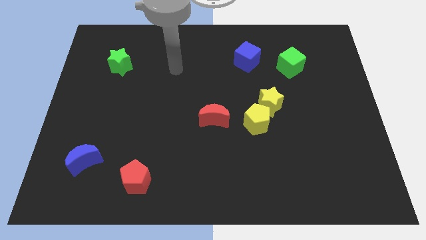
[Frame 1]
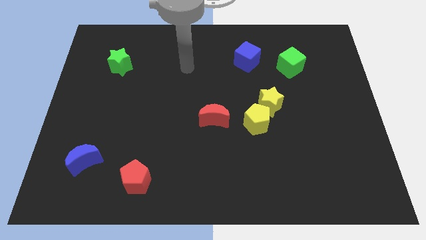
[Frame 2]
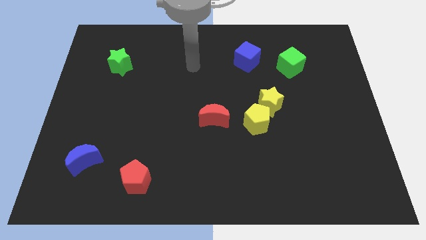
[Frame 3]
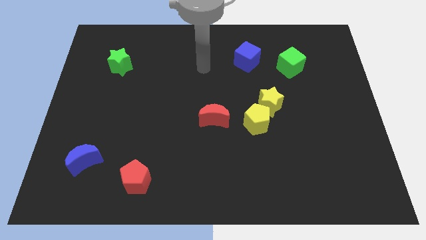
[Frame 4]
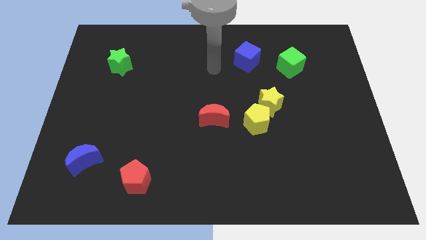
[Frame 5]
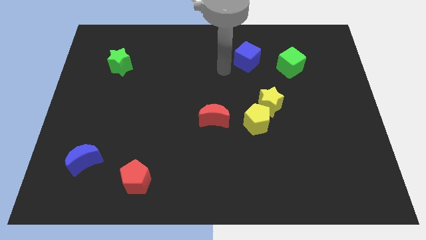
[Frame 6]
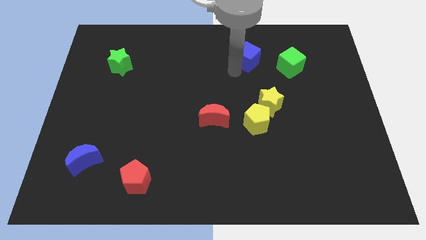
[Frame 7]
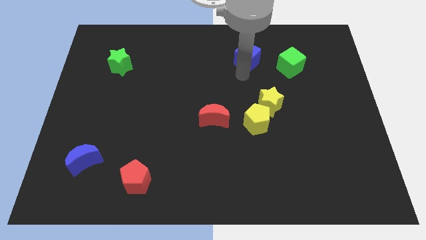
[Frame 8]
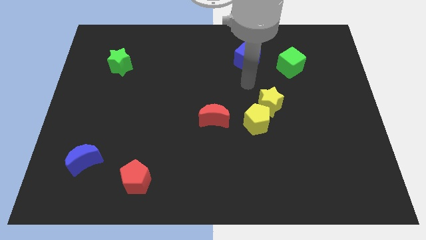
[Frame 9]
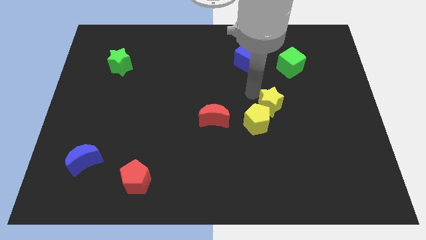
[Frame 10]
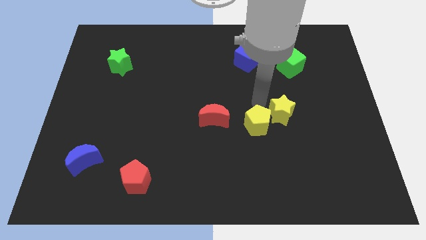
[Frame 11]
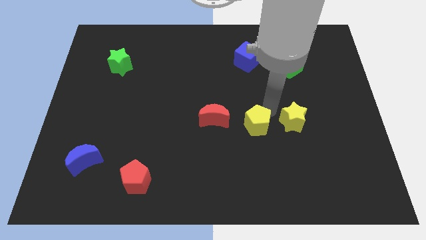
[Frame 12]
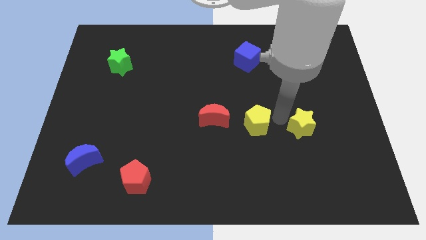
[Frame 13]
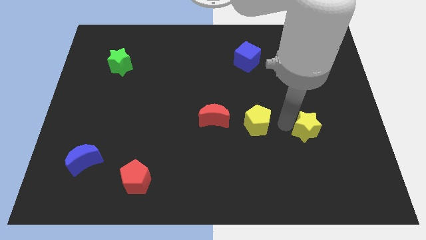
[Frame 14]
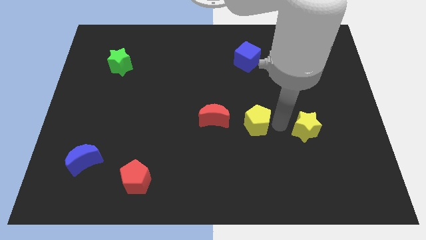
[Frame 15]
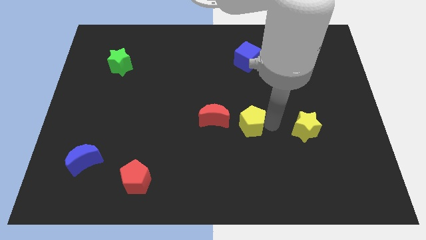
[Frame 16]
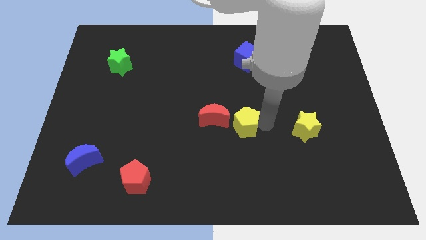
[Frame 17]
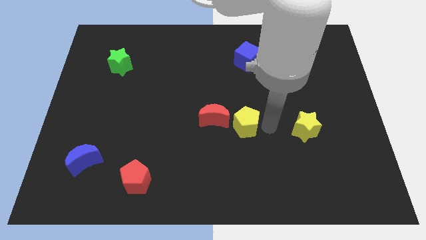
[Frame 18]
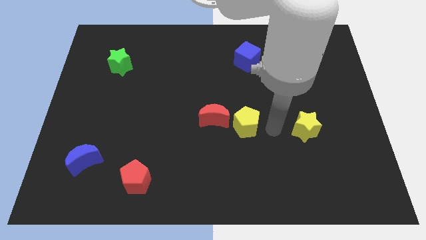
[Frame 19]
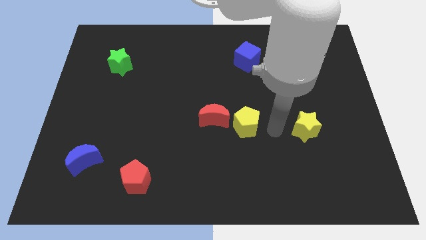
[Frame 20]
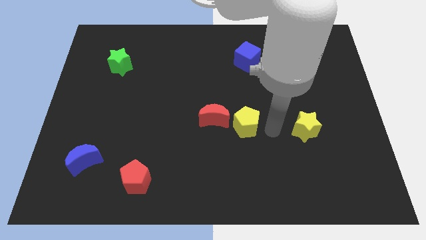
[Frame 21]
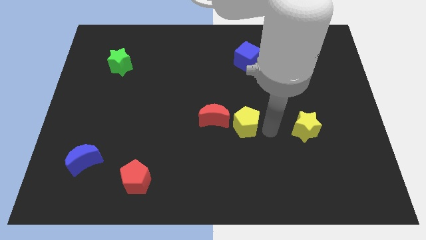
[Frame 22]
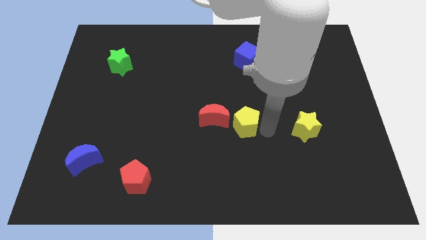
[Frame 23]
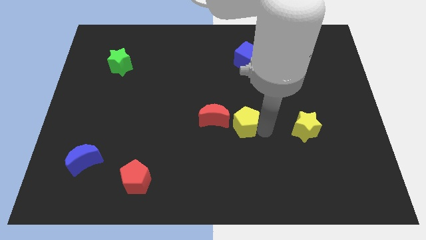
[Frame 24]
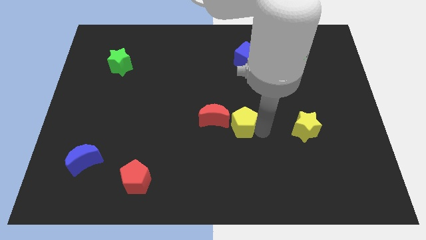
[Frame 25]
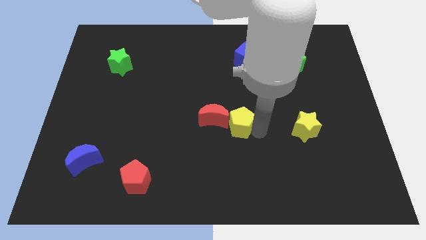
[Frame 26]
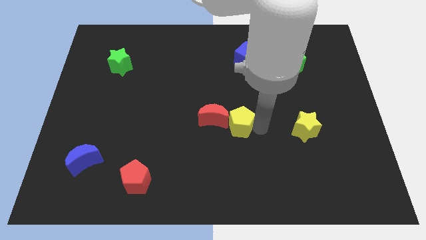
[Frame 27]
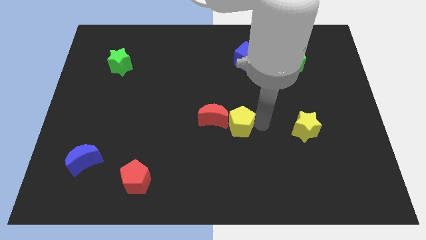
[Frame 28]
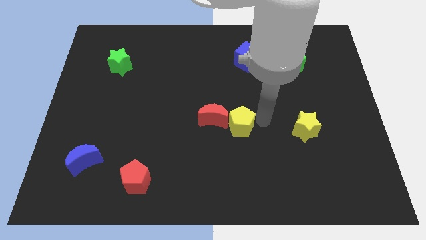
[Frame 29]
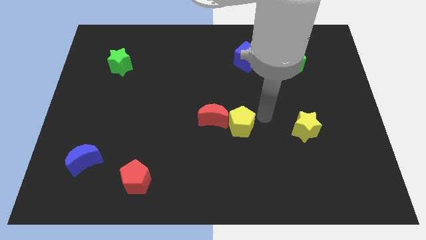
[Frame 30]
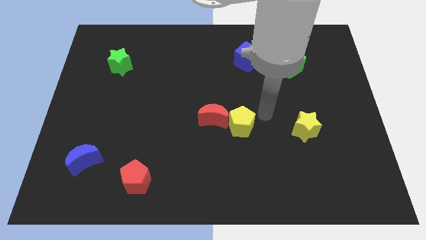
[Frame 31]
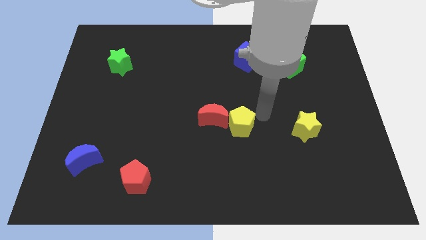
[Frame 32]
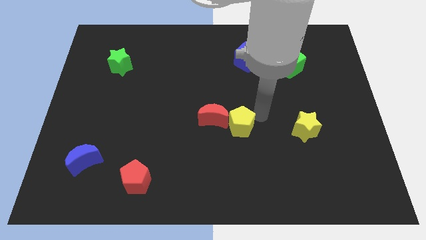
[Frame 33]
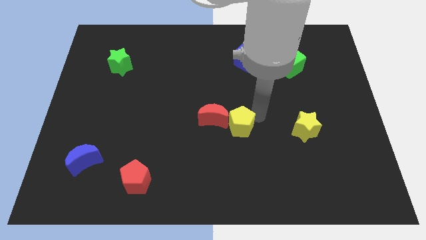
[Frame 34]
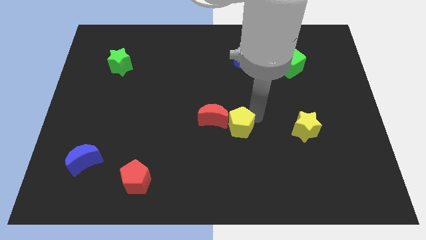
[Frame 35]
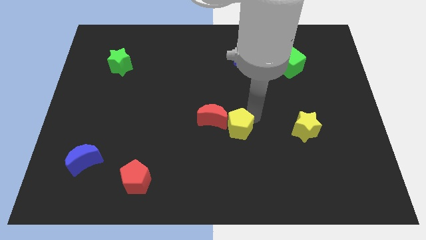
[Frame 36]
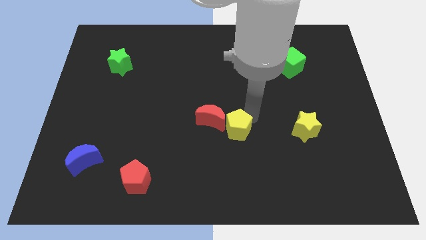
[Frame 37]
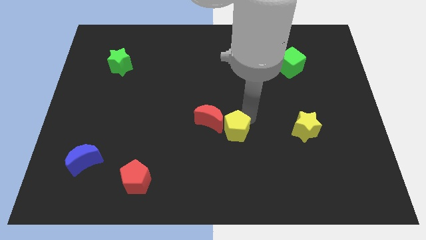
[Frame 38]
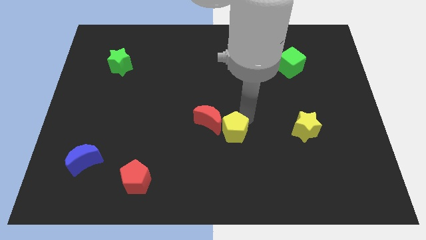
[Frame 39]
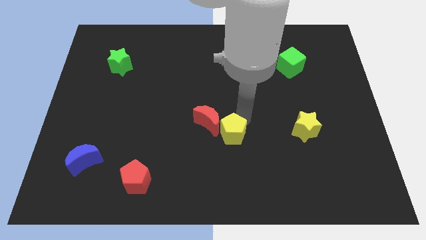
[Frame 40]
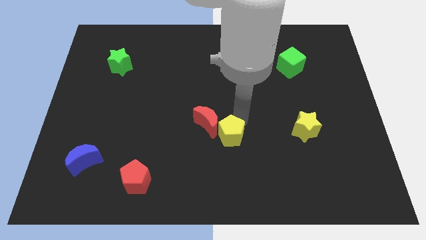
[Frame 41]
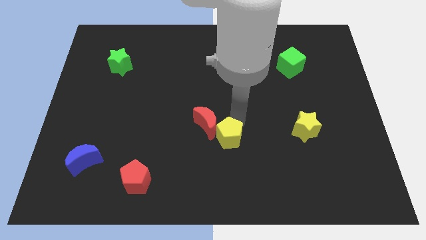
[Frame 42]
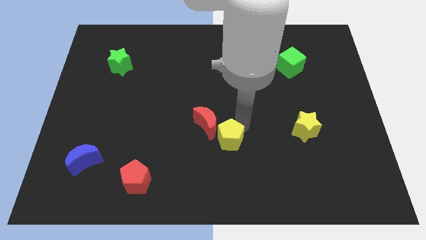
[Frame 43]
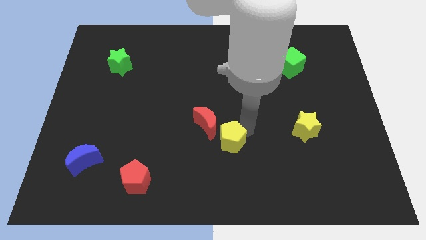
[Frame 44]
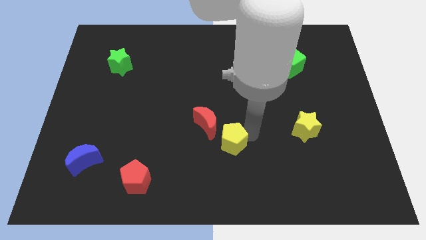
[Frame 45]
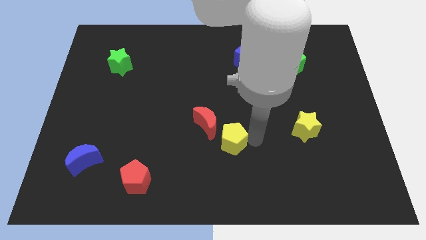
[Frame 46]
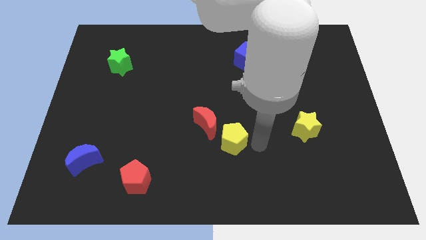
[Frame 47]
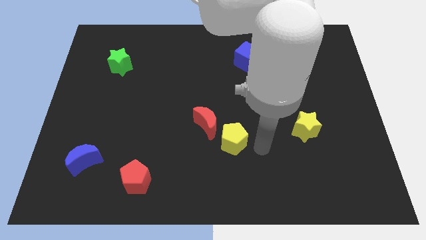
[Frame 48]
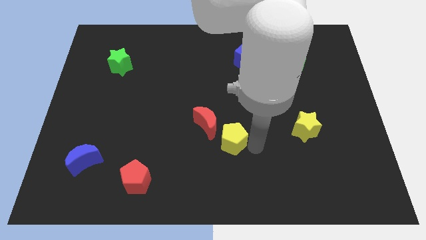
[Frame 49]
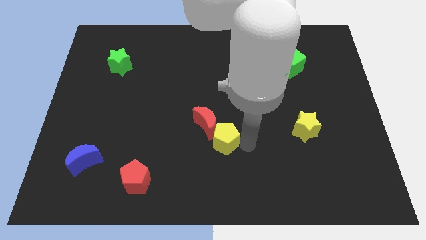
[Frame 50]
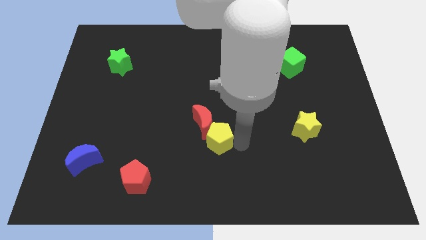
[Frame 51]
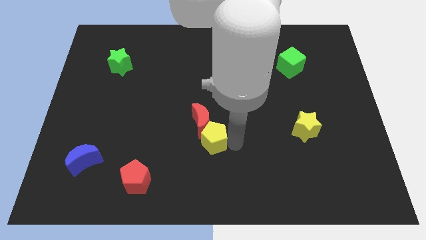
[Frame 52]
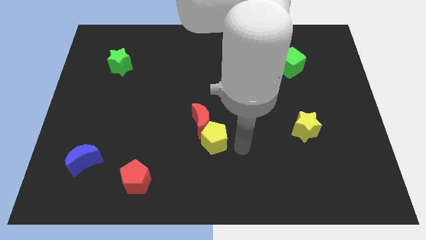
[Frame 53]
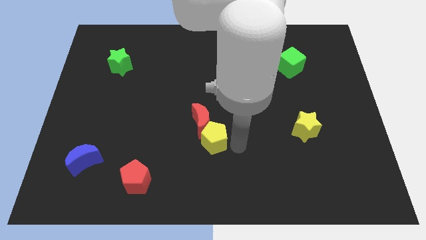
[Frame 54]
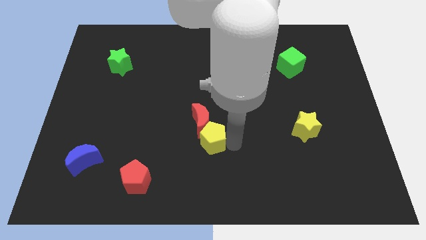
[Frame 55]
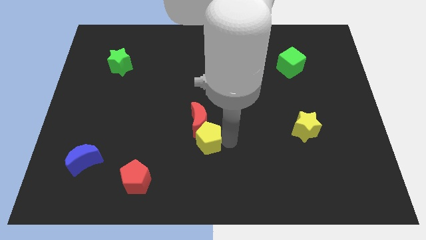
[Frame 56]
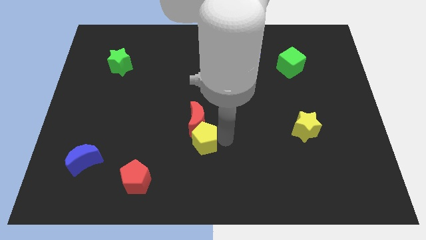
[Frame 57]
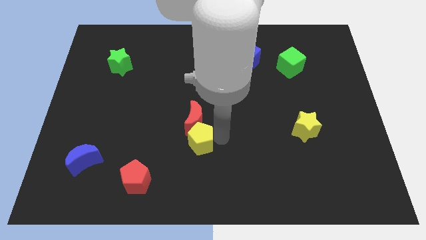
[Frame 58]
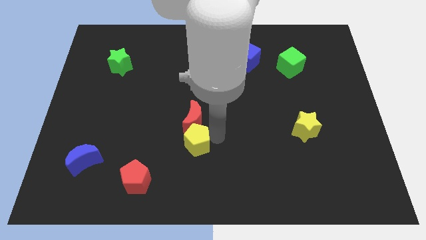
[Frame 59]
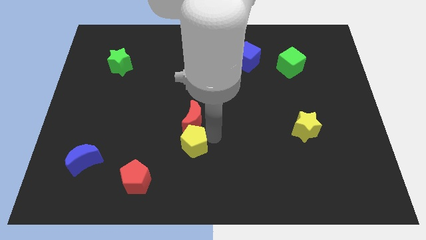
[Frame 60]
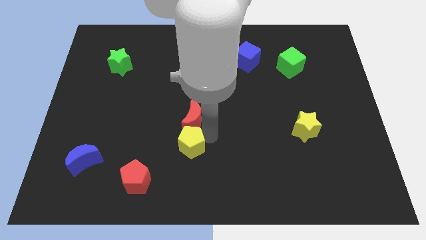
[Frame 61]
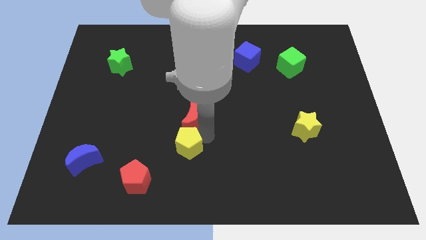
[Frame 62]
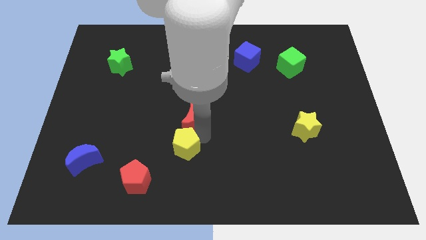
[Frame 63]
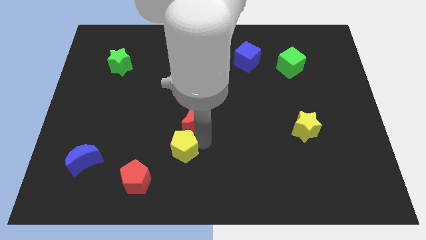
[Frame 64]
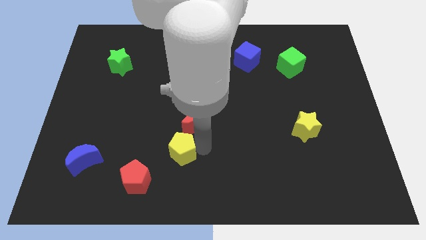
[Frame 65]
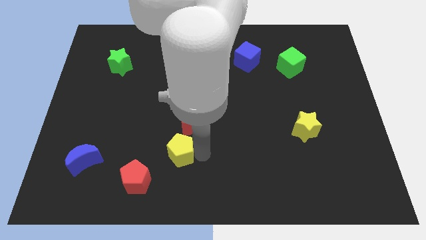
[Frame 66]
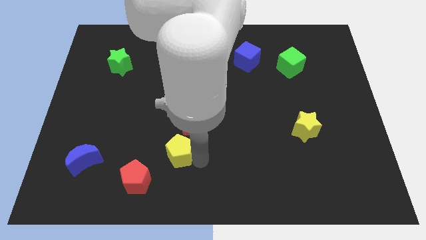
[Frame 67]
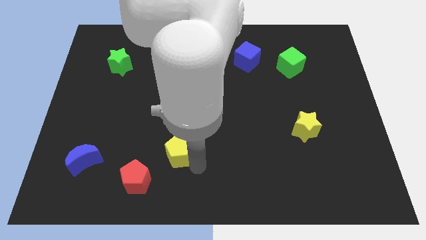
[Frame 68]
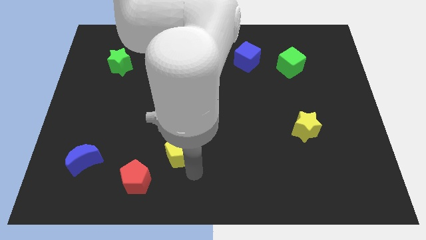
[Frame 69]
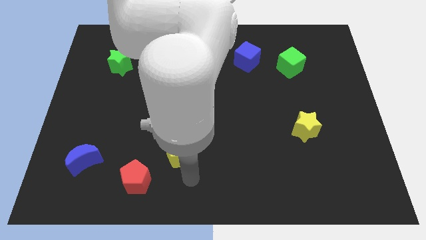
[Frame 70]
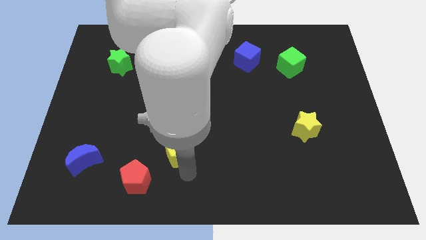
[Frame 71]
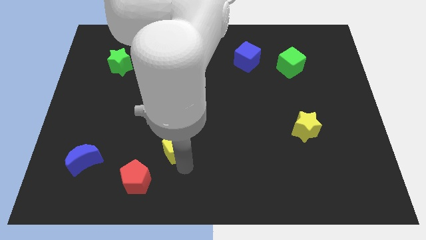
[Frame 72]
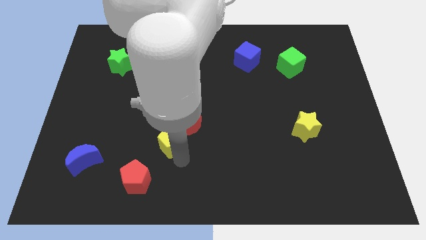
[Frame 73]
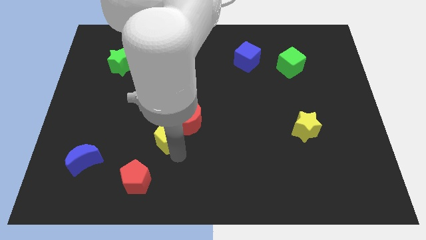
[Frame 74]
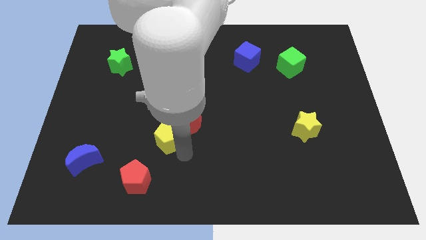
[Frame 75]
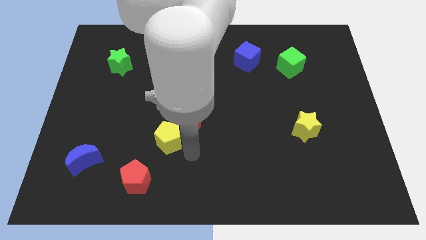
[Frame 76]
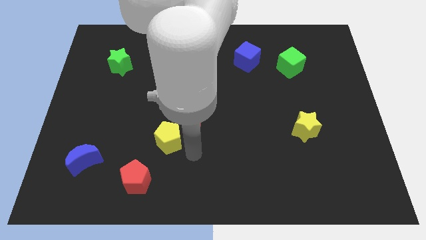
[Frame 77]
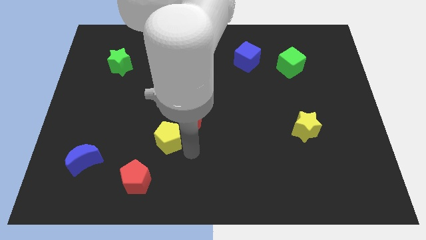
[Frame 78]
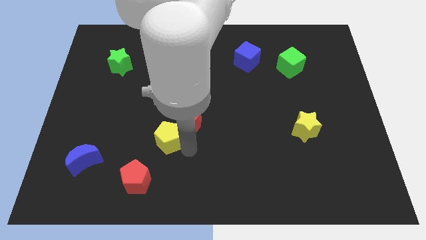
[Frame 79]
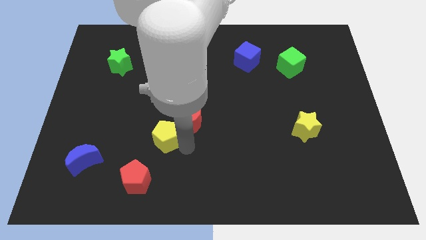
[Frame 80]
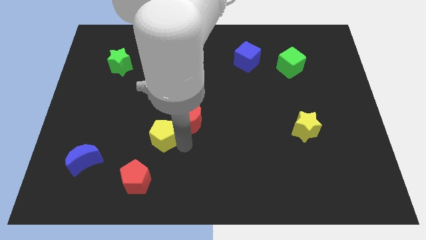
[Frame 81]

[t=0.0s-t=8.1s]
slide the yellow pentagon to the left
